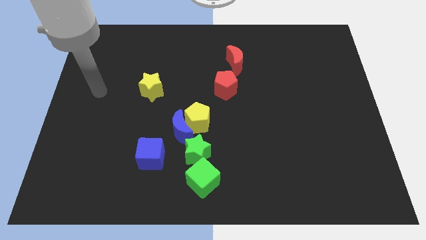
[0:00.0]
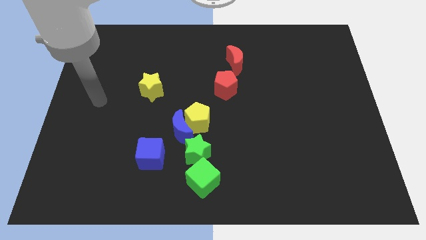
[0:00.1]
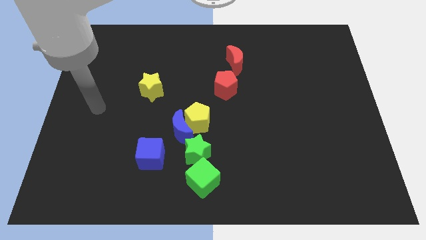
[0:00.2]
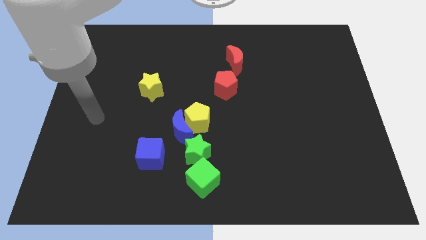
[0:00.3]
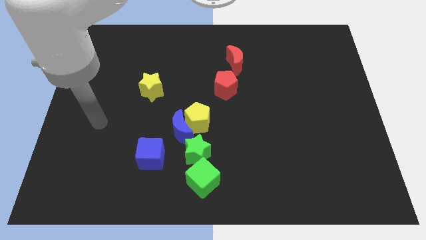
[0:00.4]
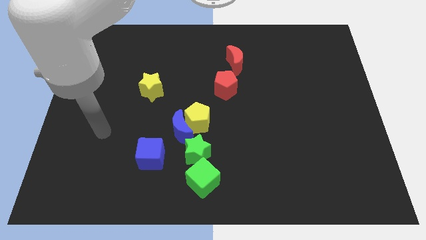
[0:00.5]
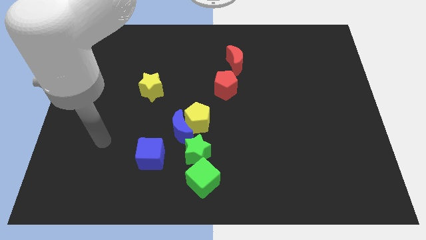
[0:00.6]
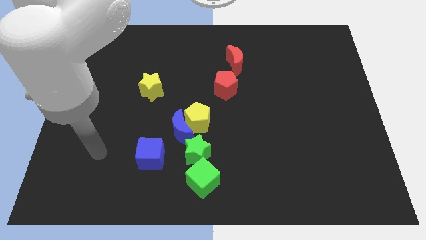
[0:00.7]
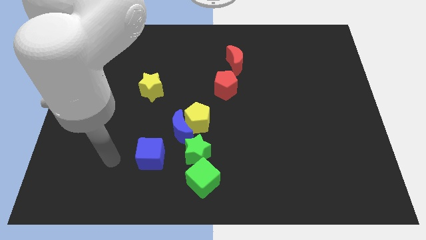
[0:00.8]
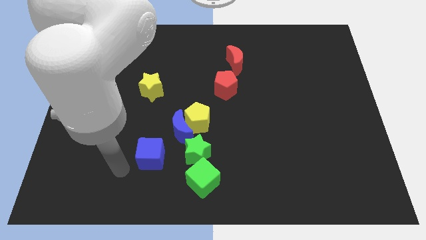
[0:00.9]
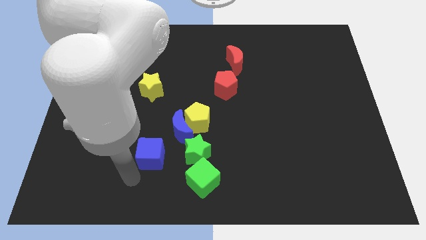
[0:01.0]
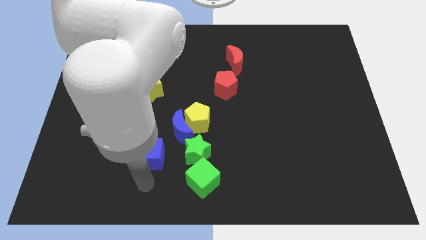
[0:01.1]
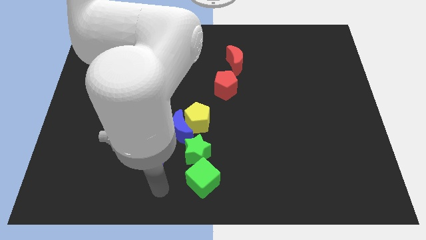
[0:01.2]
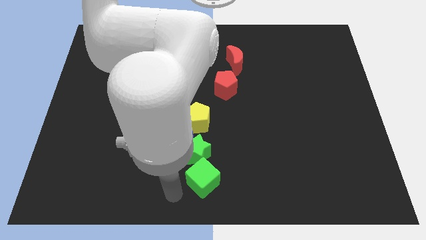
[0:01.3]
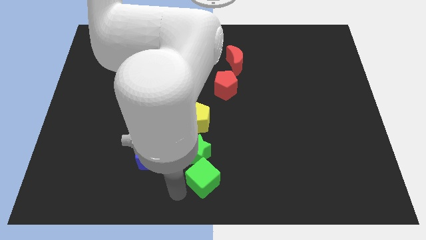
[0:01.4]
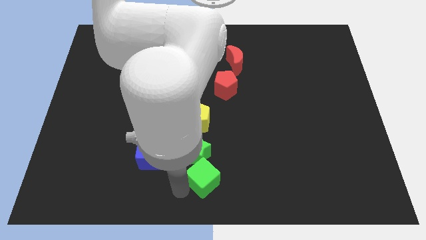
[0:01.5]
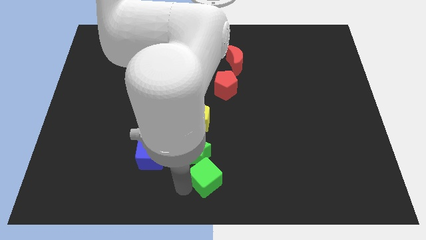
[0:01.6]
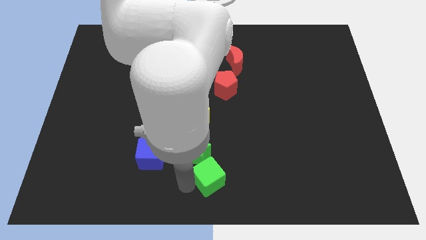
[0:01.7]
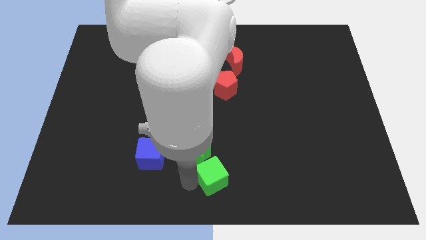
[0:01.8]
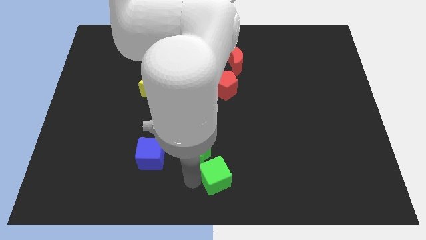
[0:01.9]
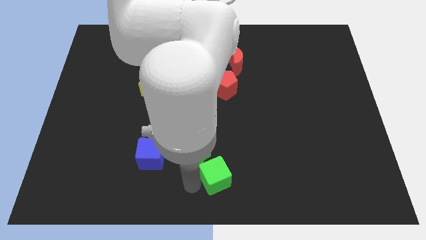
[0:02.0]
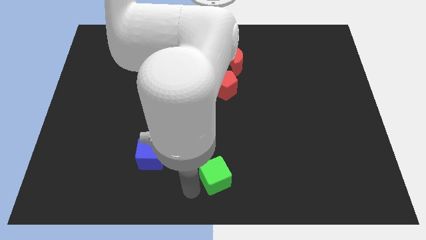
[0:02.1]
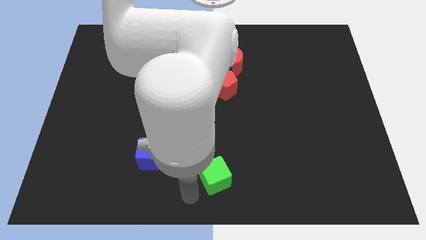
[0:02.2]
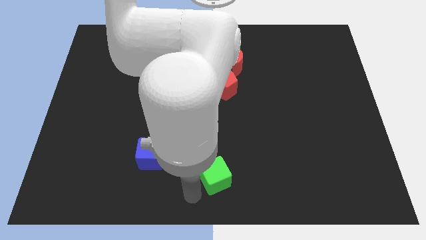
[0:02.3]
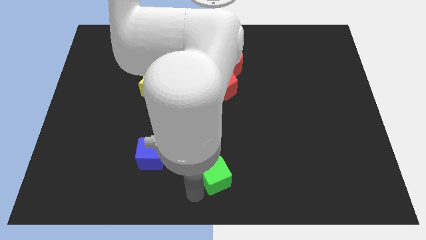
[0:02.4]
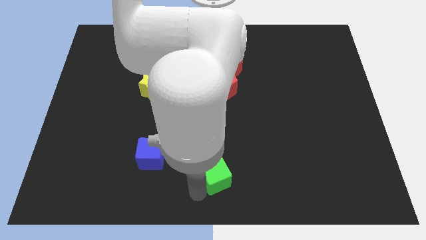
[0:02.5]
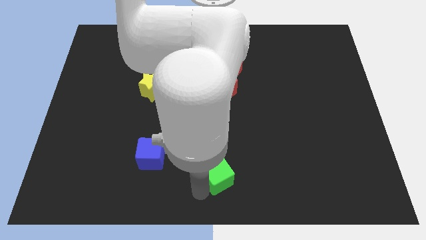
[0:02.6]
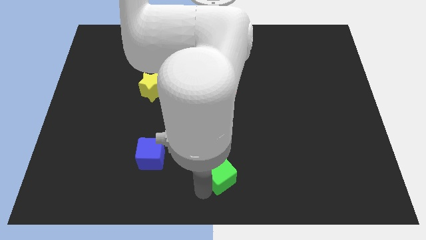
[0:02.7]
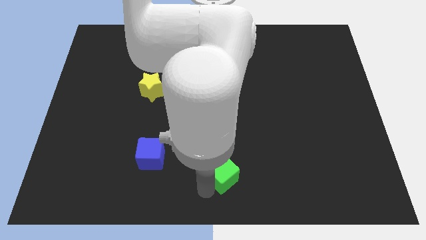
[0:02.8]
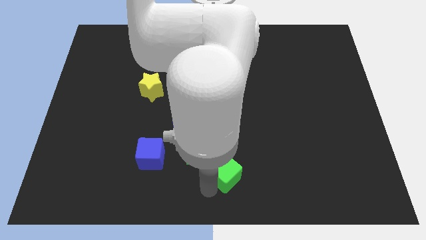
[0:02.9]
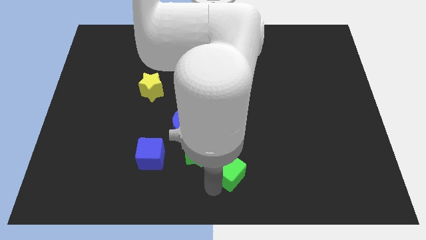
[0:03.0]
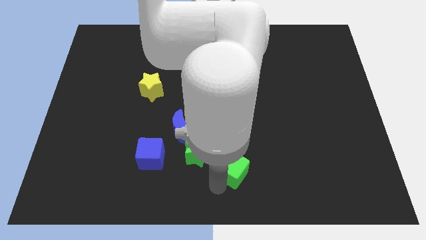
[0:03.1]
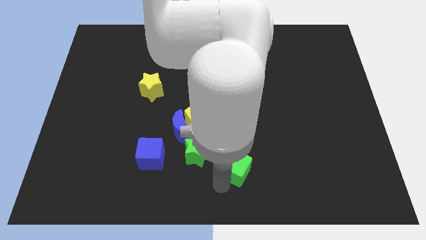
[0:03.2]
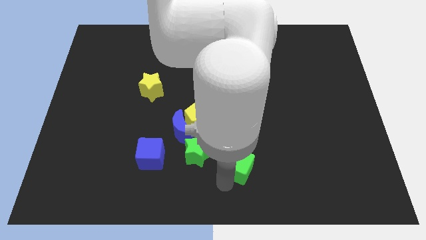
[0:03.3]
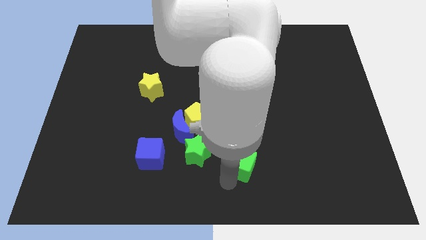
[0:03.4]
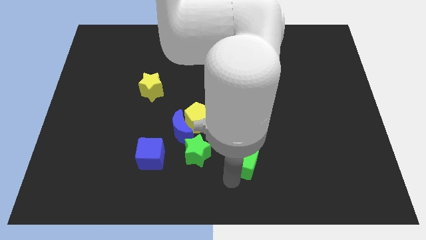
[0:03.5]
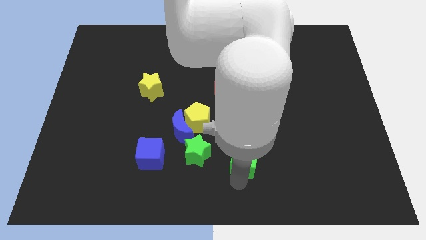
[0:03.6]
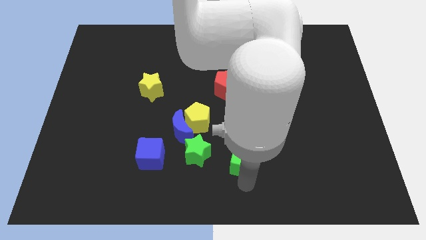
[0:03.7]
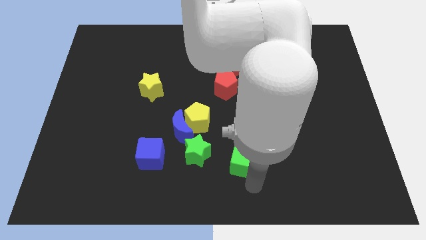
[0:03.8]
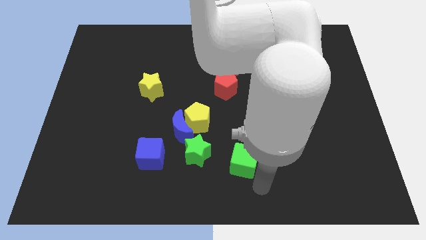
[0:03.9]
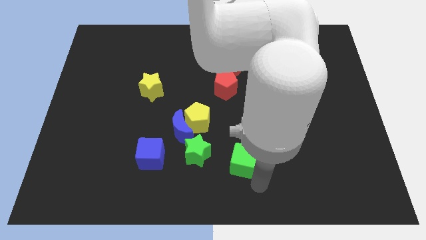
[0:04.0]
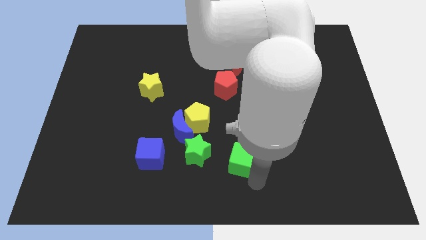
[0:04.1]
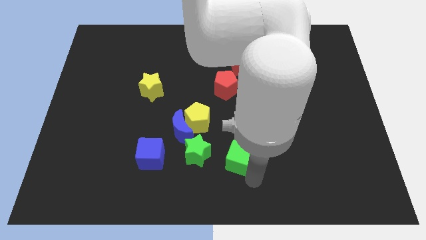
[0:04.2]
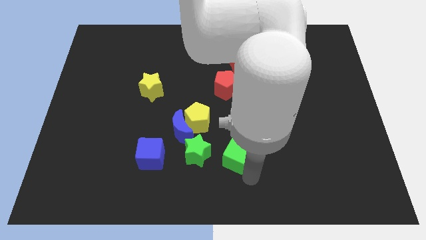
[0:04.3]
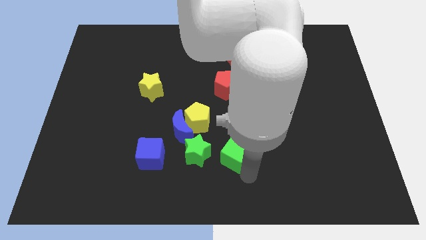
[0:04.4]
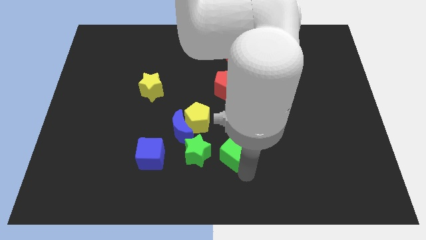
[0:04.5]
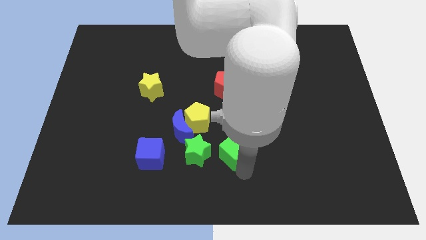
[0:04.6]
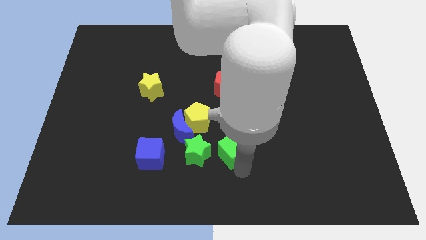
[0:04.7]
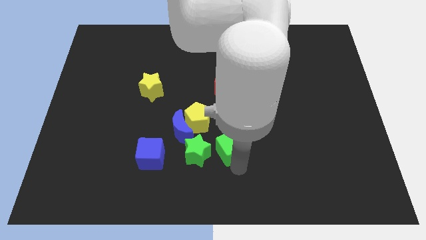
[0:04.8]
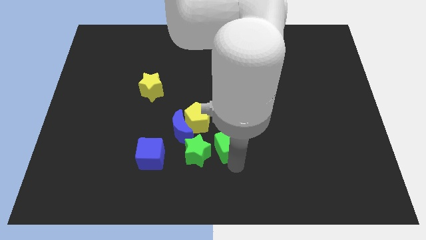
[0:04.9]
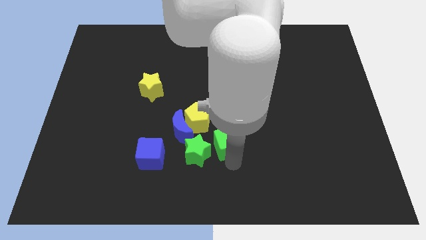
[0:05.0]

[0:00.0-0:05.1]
move the green cube up a bit

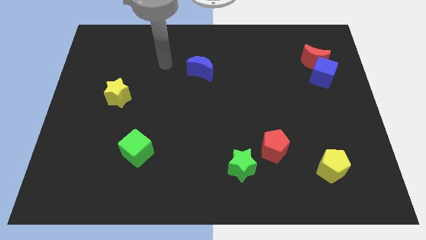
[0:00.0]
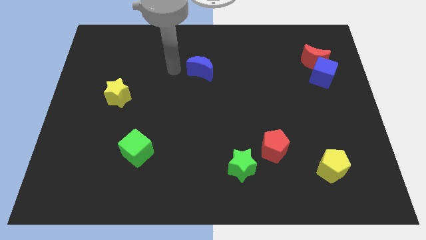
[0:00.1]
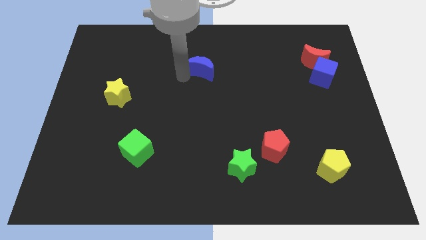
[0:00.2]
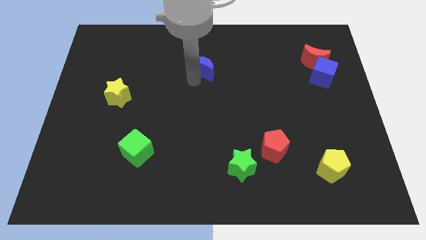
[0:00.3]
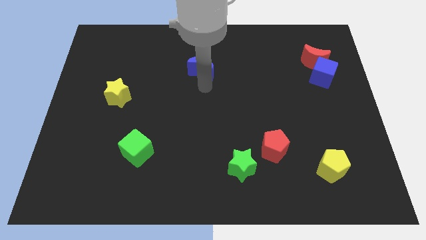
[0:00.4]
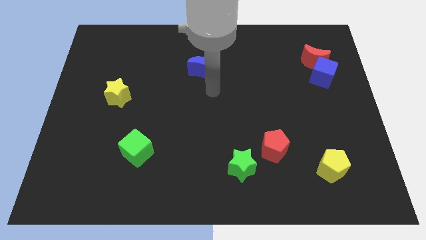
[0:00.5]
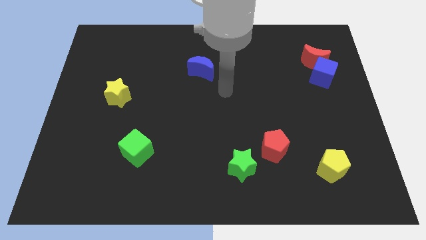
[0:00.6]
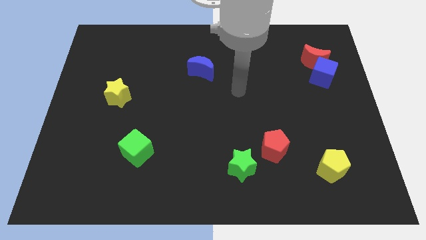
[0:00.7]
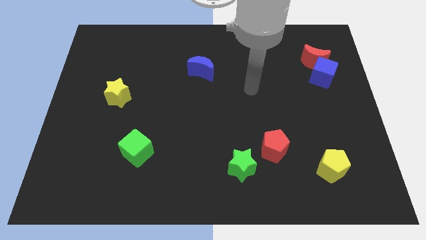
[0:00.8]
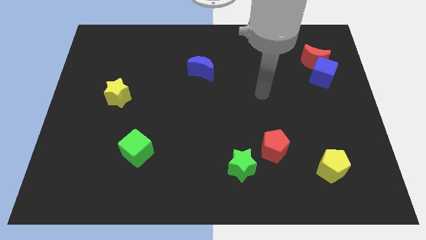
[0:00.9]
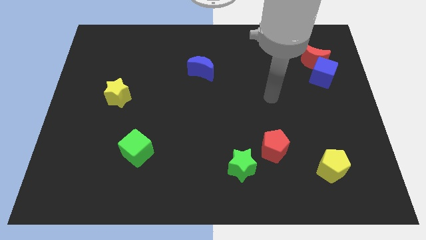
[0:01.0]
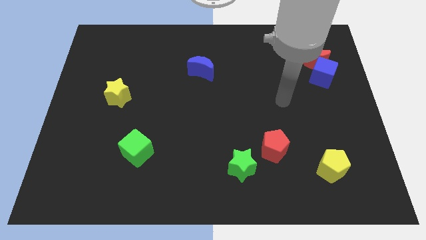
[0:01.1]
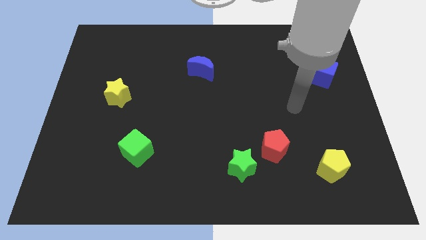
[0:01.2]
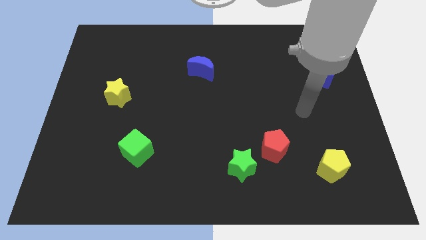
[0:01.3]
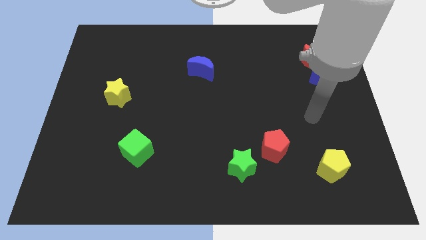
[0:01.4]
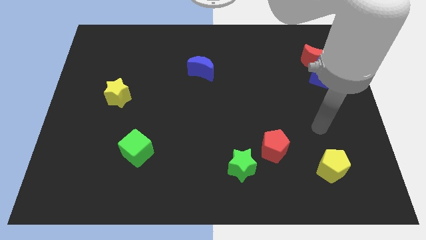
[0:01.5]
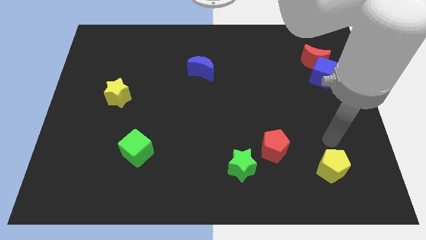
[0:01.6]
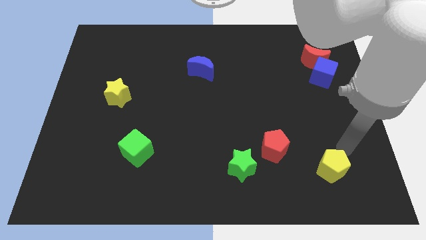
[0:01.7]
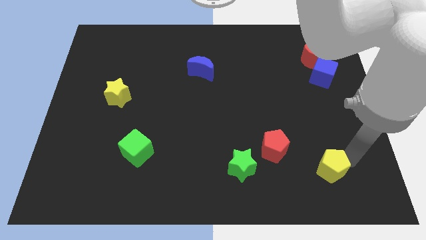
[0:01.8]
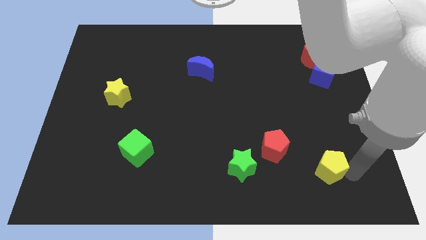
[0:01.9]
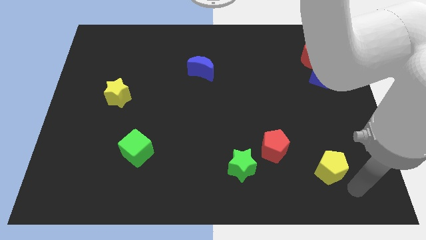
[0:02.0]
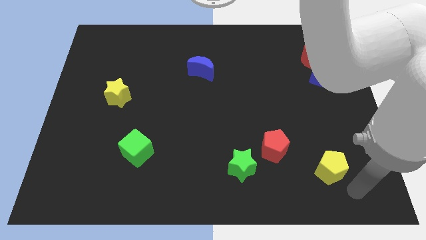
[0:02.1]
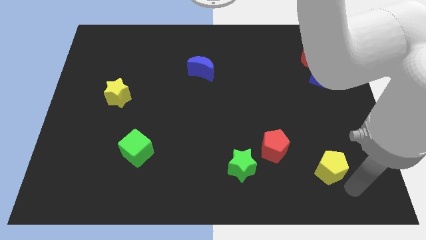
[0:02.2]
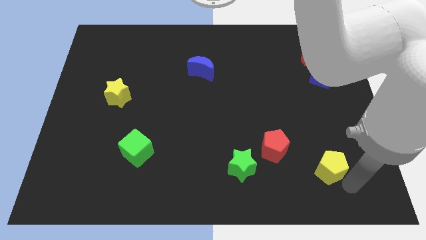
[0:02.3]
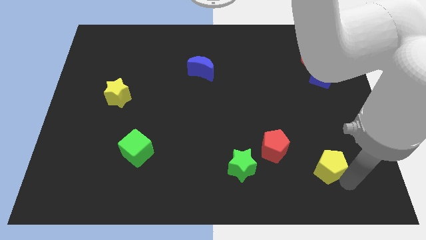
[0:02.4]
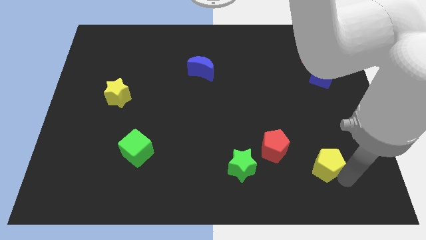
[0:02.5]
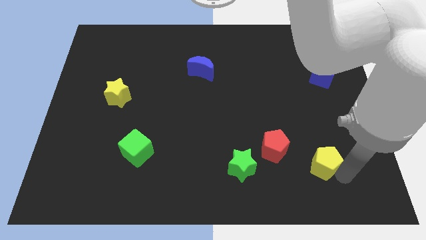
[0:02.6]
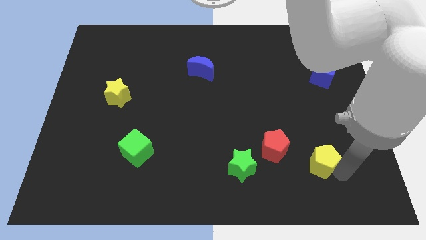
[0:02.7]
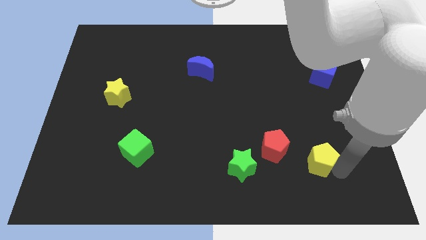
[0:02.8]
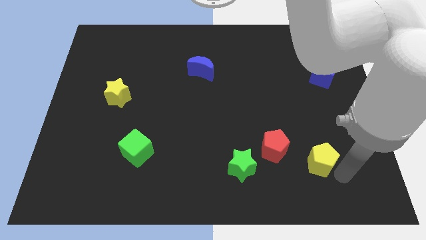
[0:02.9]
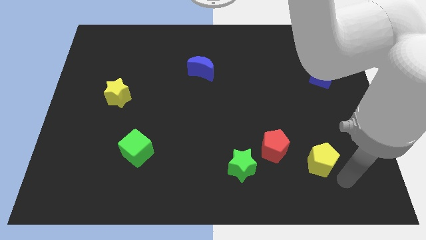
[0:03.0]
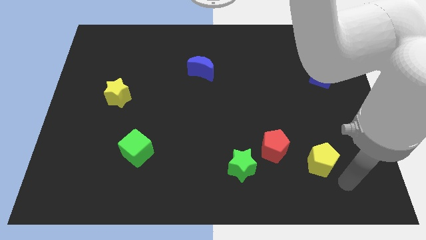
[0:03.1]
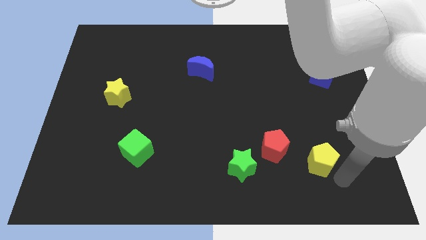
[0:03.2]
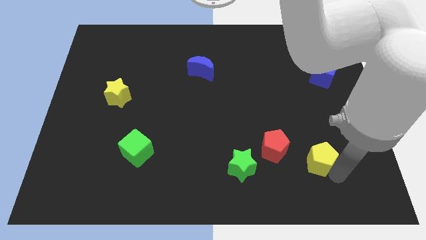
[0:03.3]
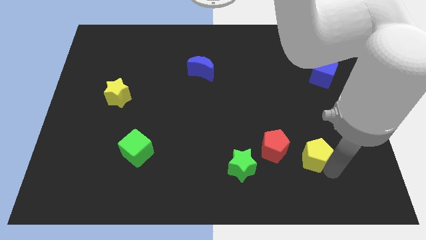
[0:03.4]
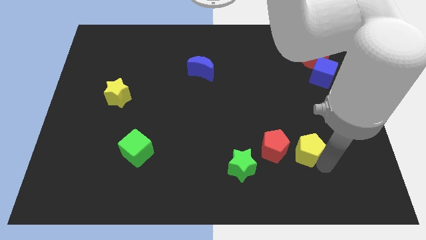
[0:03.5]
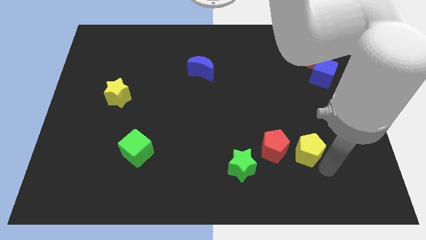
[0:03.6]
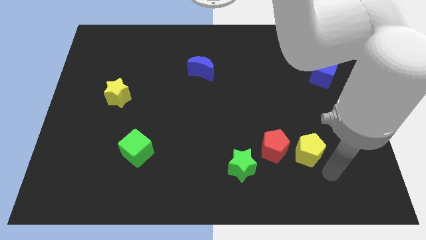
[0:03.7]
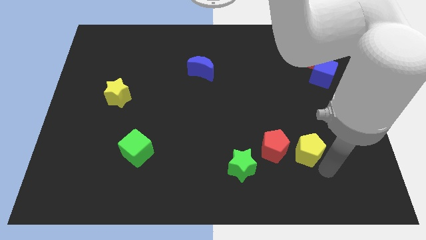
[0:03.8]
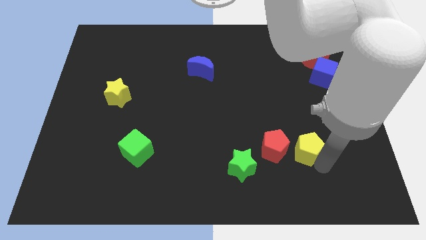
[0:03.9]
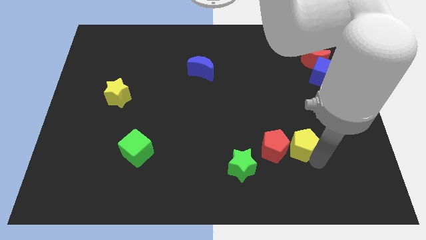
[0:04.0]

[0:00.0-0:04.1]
push the yellow pentagon somewhat upwards and to the left diagonally
